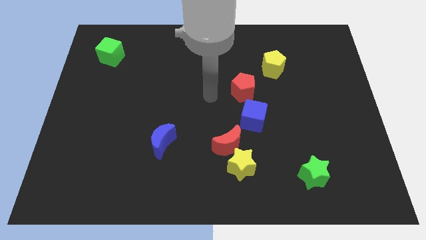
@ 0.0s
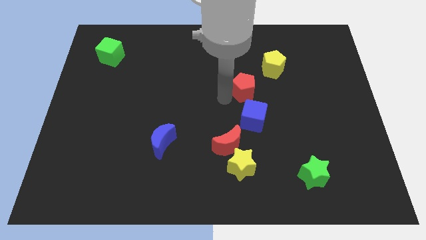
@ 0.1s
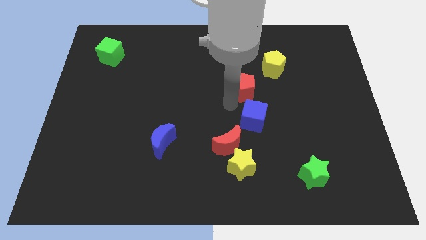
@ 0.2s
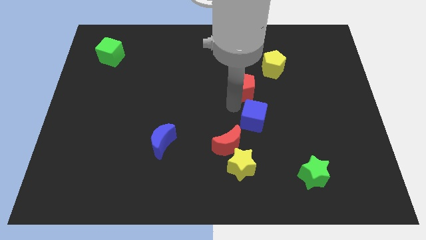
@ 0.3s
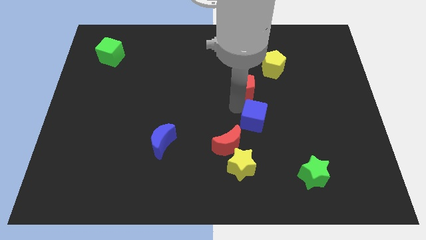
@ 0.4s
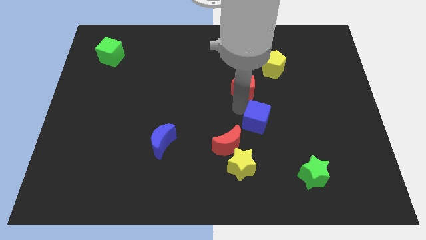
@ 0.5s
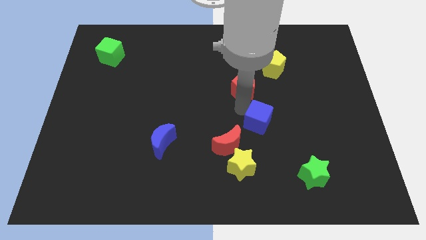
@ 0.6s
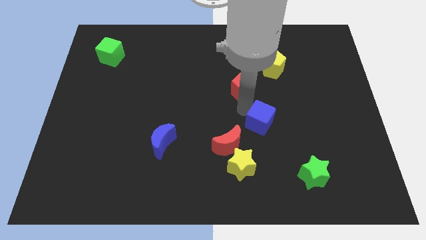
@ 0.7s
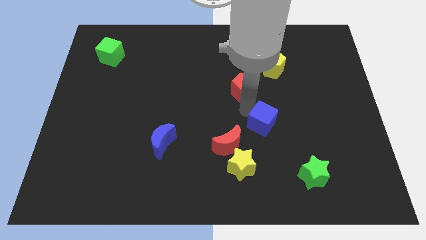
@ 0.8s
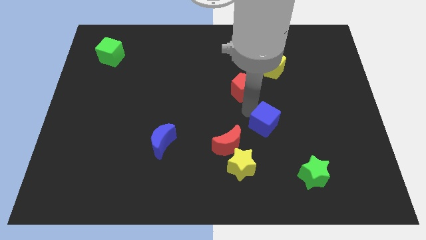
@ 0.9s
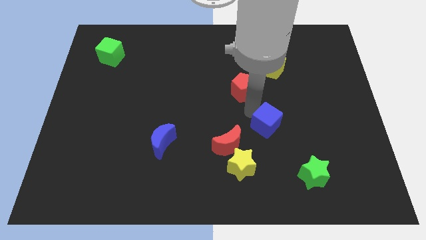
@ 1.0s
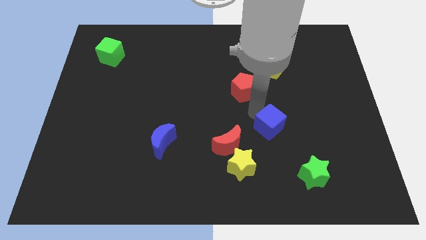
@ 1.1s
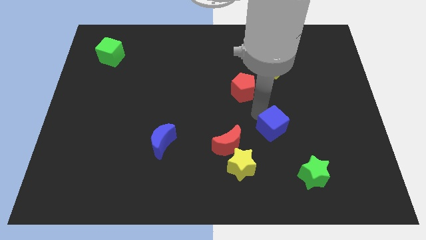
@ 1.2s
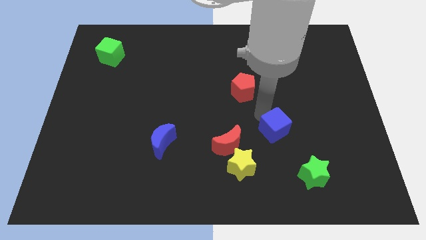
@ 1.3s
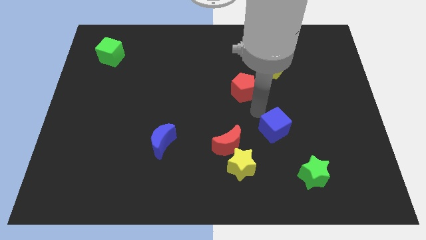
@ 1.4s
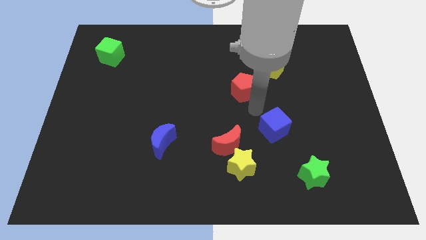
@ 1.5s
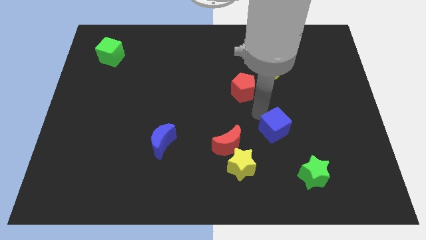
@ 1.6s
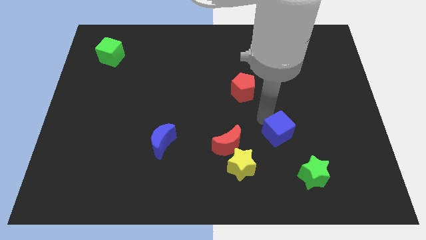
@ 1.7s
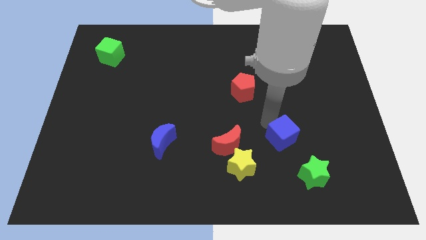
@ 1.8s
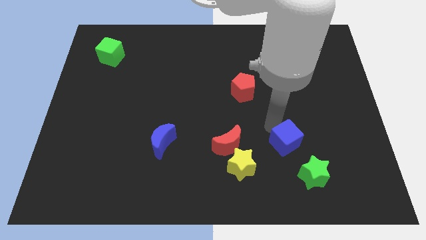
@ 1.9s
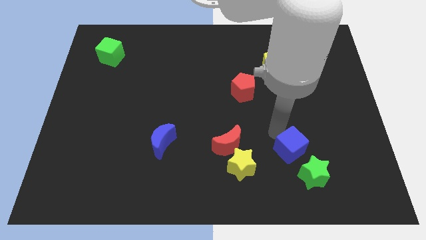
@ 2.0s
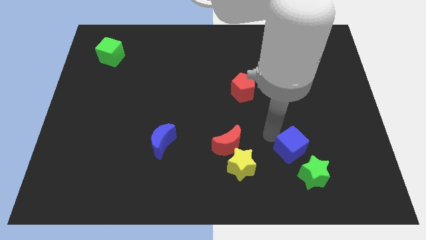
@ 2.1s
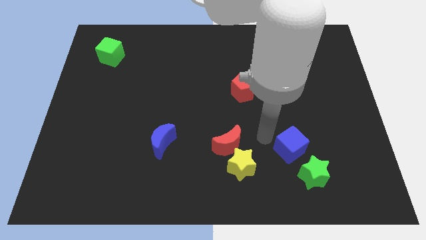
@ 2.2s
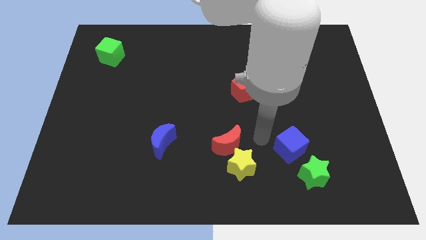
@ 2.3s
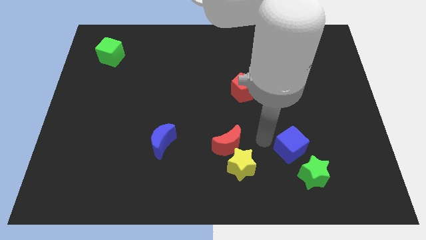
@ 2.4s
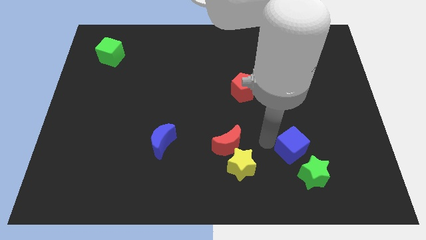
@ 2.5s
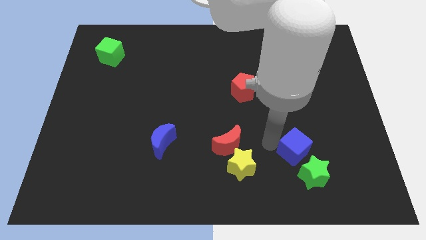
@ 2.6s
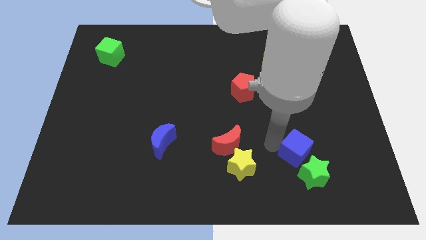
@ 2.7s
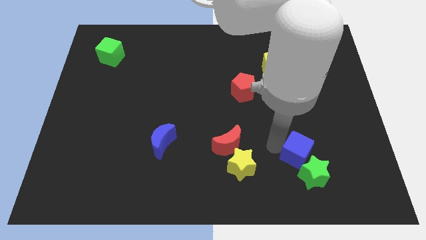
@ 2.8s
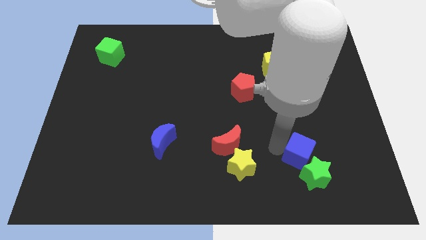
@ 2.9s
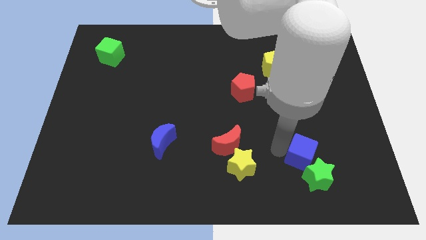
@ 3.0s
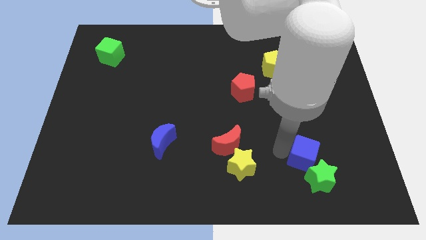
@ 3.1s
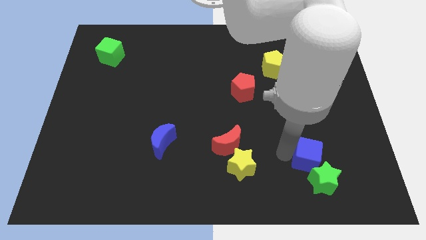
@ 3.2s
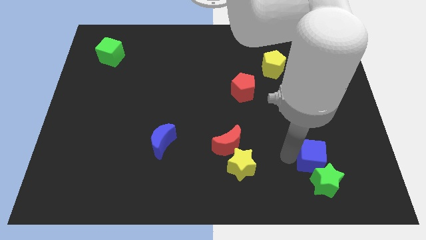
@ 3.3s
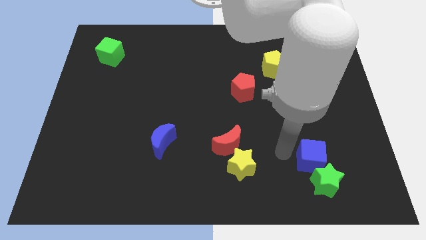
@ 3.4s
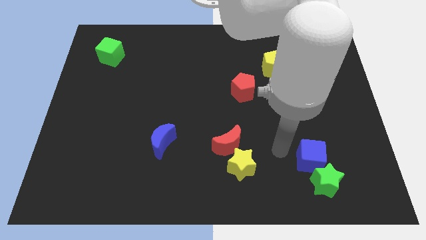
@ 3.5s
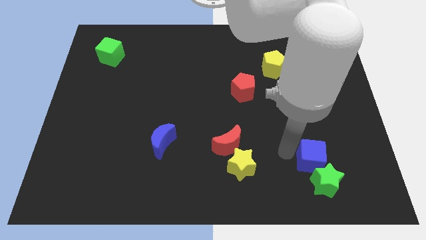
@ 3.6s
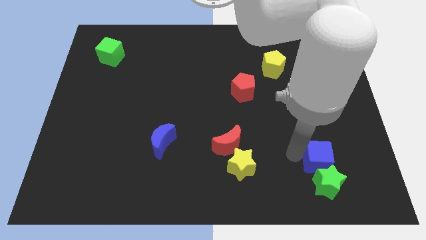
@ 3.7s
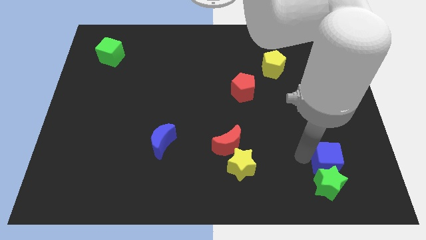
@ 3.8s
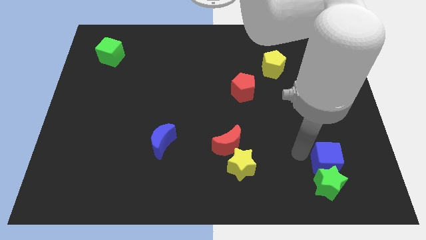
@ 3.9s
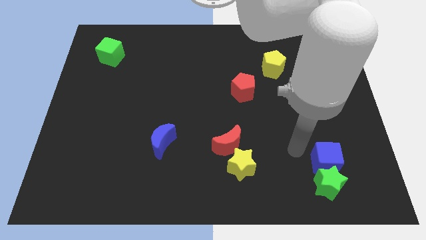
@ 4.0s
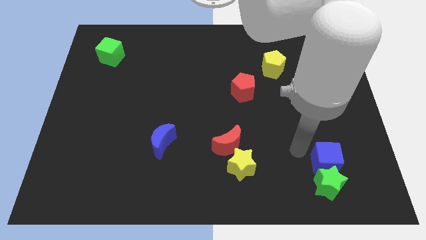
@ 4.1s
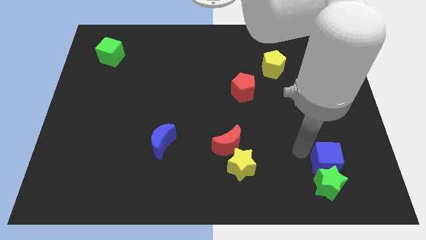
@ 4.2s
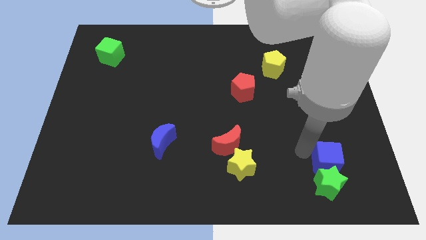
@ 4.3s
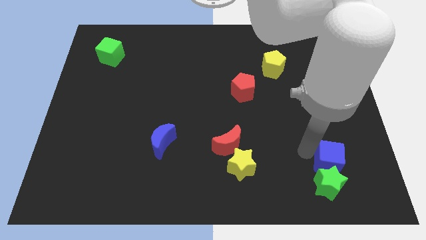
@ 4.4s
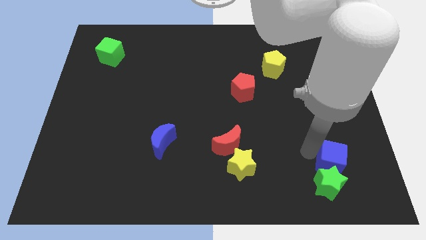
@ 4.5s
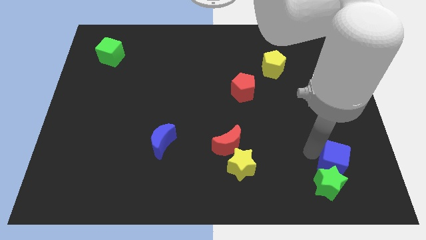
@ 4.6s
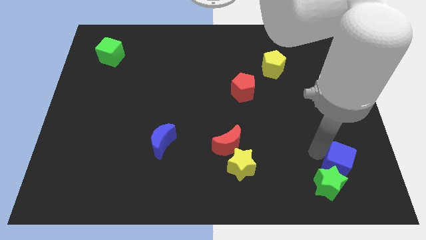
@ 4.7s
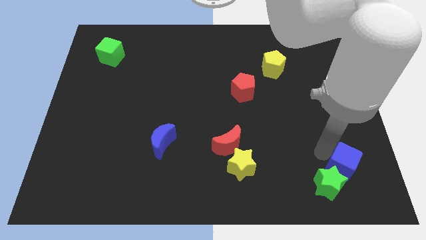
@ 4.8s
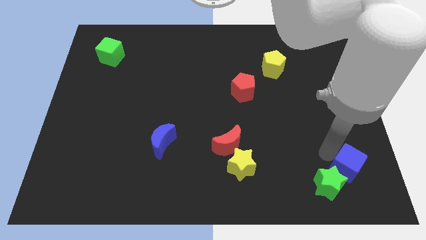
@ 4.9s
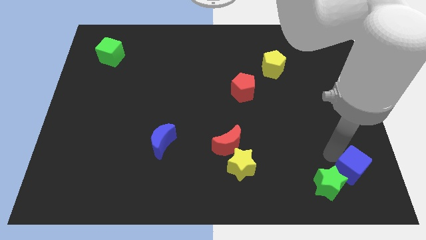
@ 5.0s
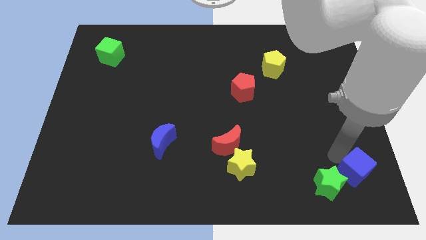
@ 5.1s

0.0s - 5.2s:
put the blue cube to the bottom right of the board

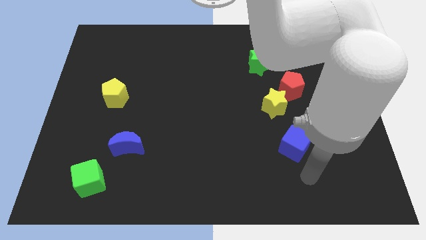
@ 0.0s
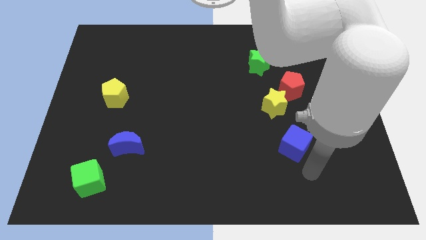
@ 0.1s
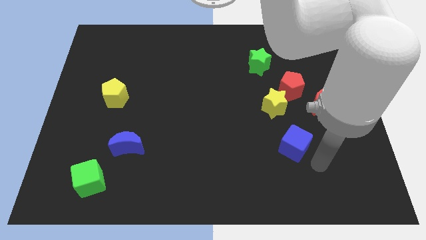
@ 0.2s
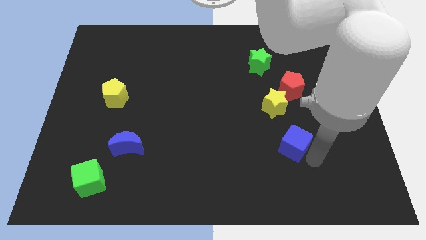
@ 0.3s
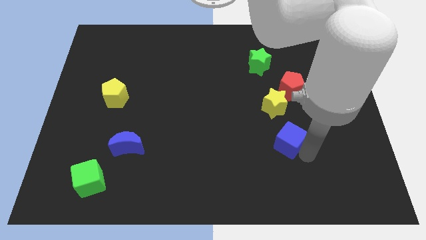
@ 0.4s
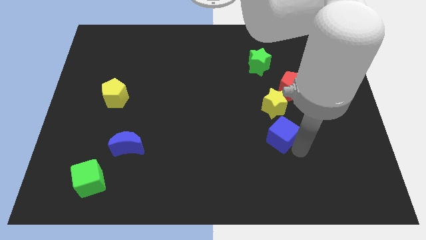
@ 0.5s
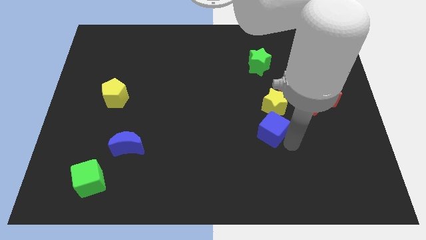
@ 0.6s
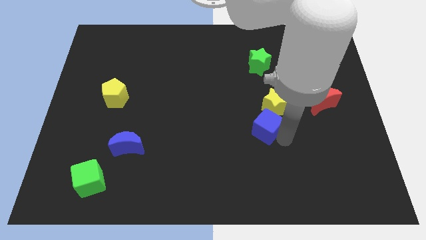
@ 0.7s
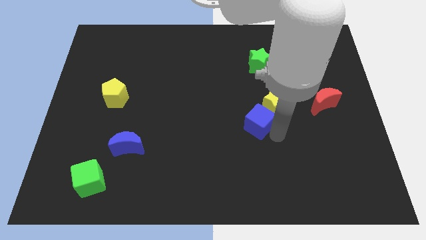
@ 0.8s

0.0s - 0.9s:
move the blue cube to the middle of the board
